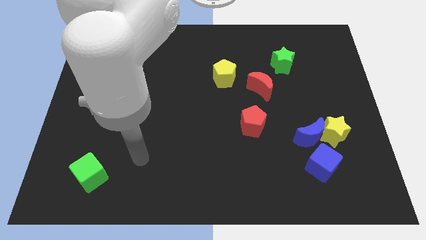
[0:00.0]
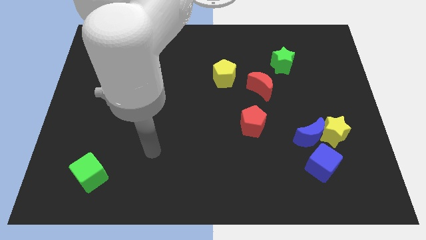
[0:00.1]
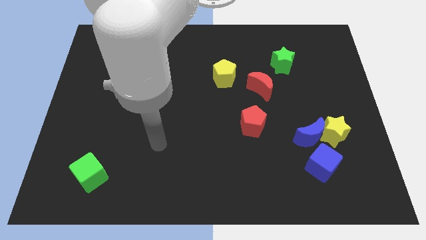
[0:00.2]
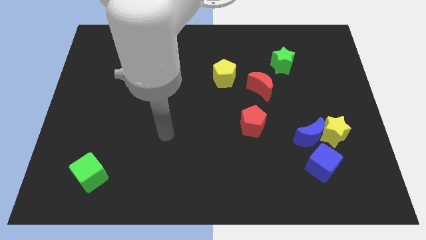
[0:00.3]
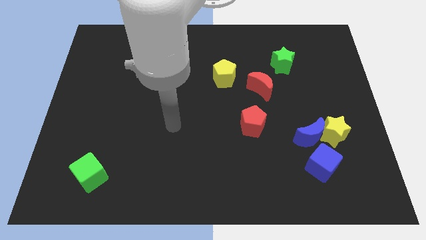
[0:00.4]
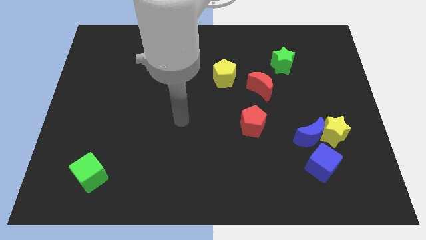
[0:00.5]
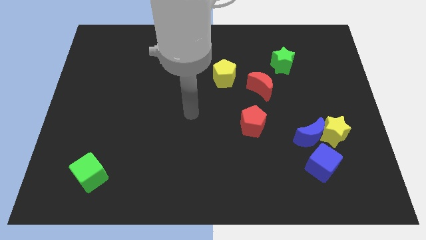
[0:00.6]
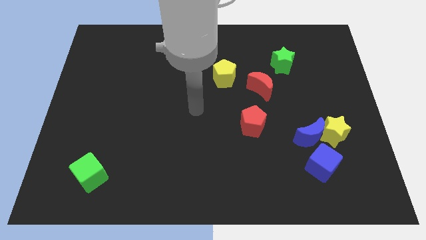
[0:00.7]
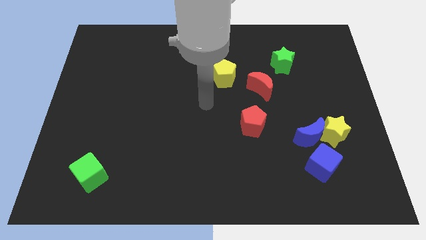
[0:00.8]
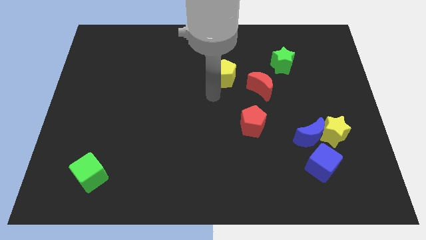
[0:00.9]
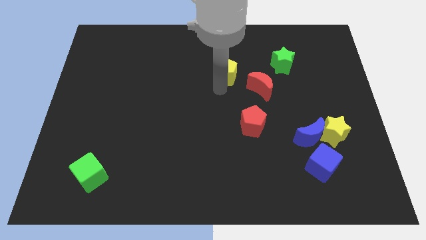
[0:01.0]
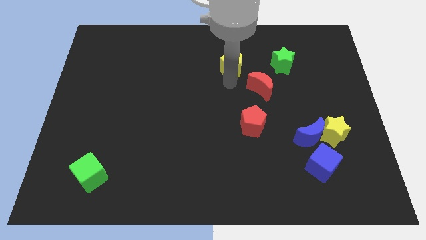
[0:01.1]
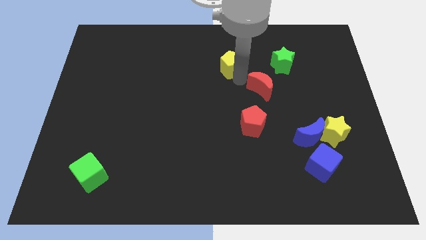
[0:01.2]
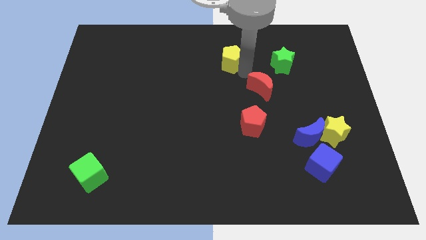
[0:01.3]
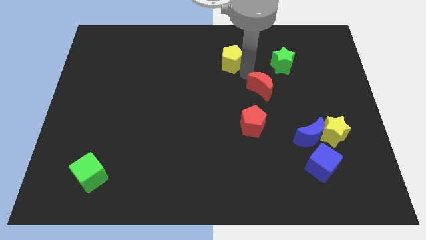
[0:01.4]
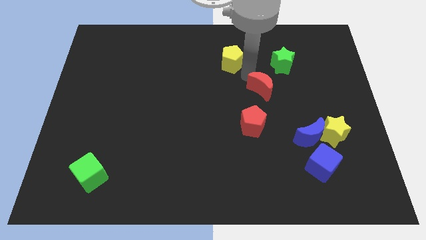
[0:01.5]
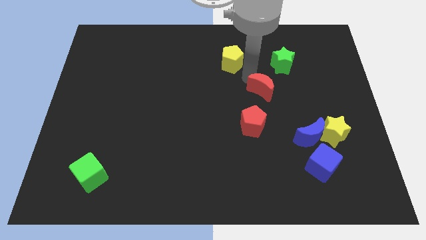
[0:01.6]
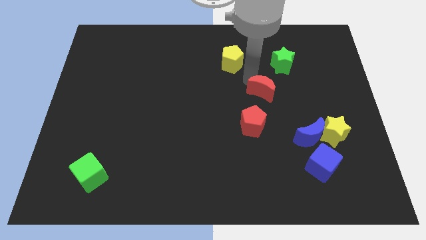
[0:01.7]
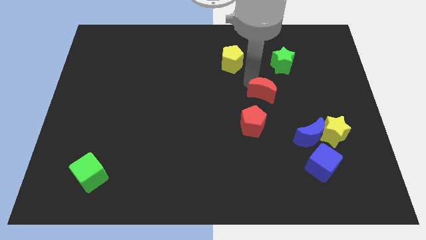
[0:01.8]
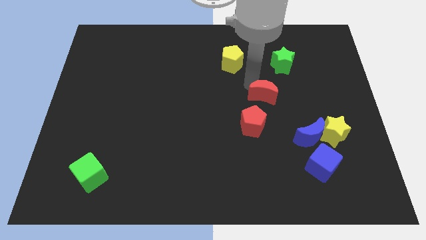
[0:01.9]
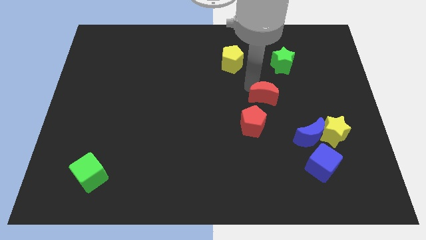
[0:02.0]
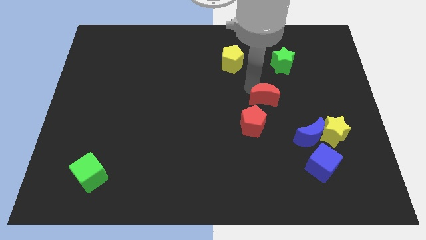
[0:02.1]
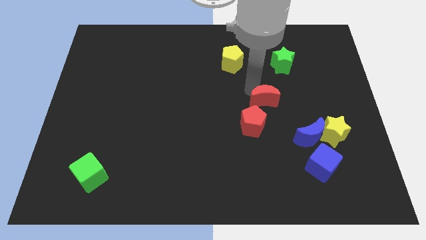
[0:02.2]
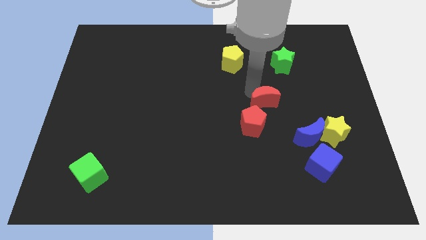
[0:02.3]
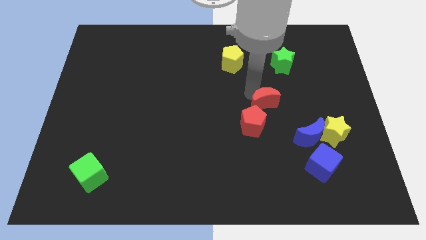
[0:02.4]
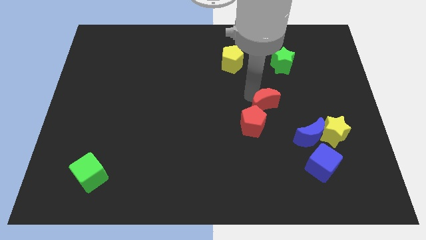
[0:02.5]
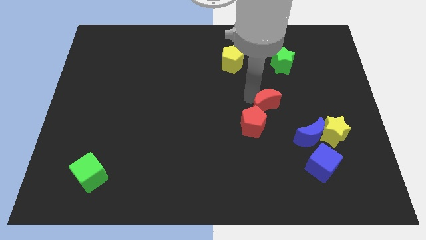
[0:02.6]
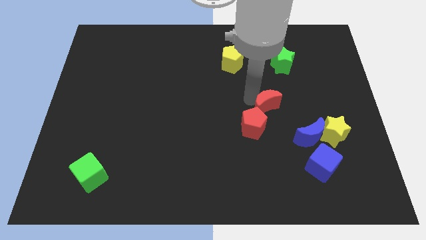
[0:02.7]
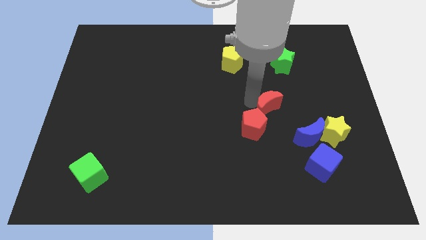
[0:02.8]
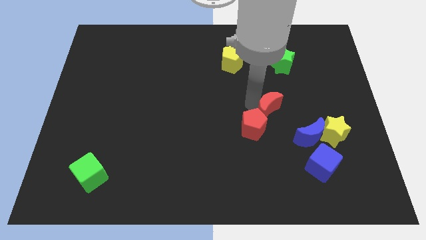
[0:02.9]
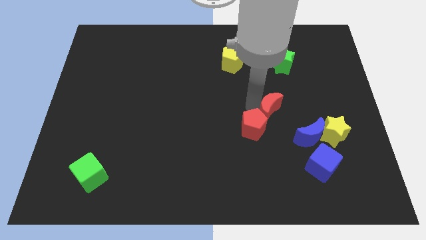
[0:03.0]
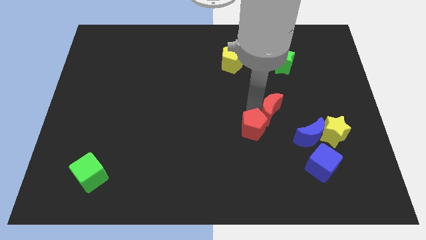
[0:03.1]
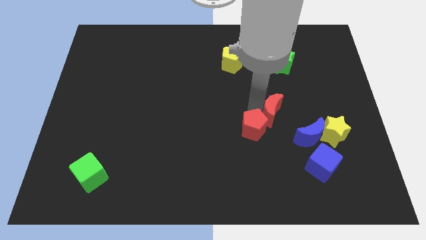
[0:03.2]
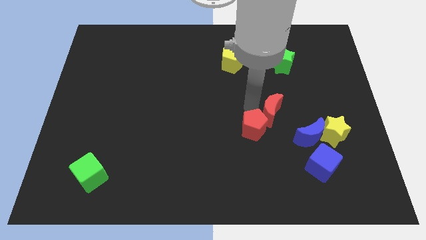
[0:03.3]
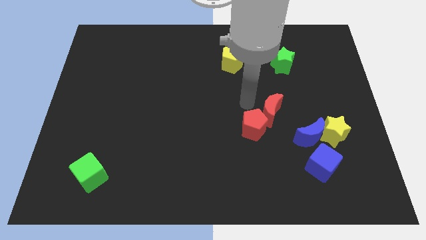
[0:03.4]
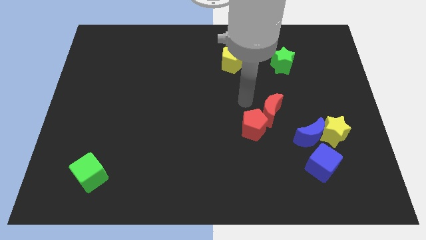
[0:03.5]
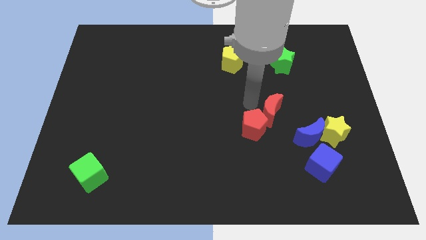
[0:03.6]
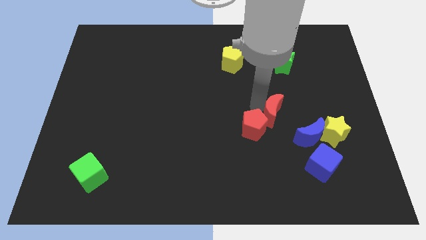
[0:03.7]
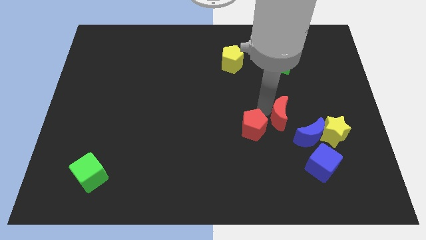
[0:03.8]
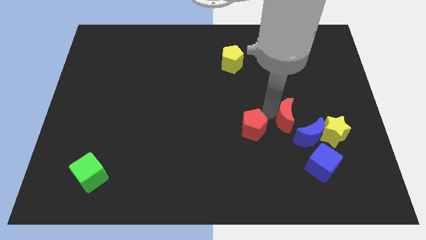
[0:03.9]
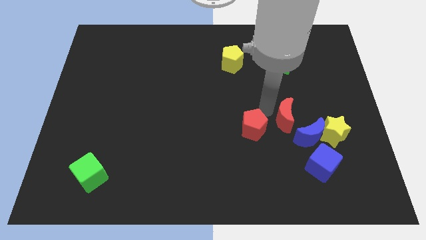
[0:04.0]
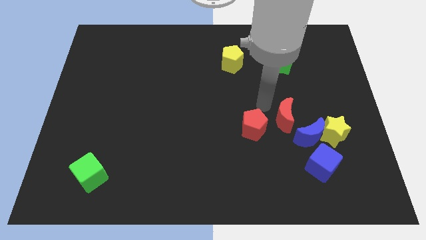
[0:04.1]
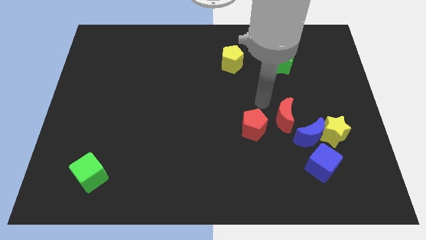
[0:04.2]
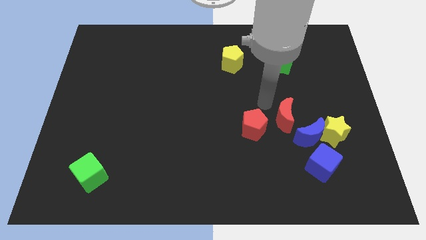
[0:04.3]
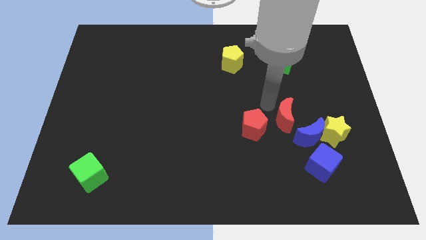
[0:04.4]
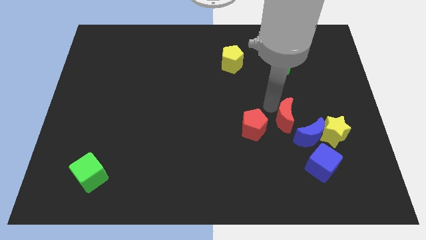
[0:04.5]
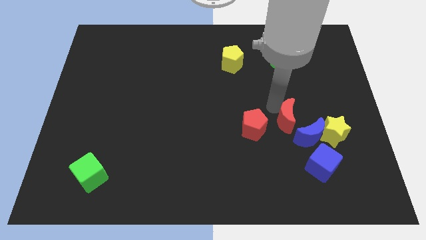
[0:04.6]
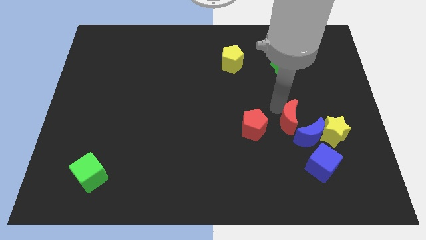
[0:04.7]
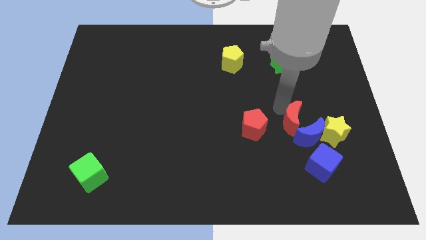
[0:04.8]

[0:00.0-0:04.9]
put the red moon close to the blue moon

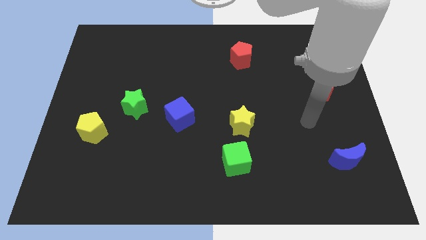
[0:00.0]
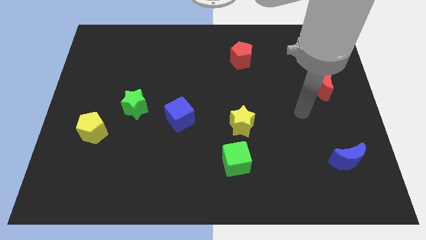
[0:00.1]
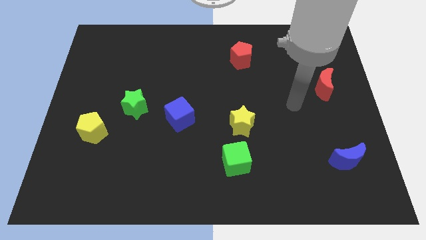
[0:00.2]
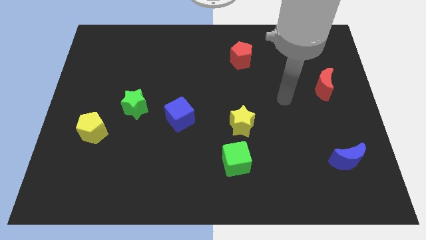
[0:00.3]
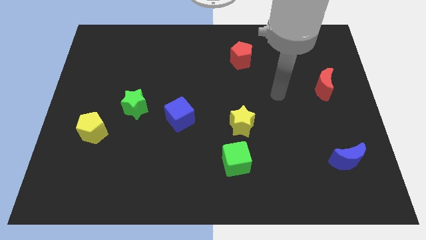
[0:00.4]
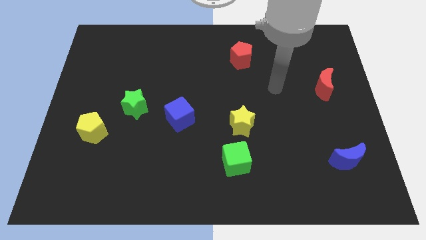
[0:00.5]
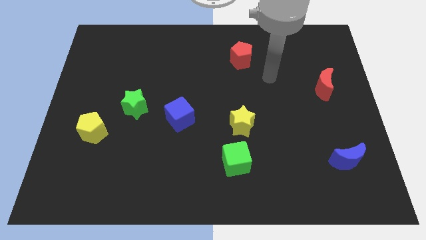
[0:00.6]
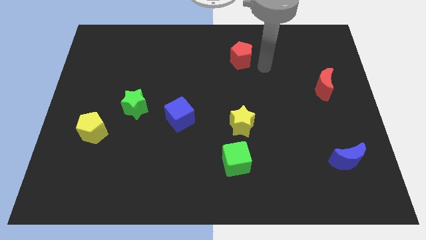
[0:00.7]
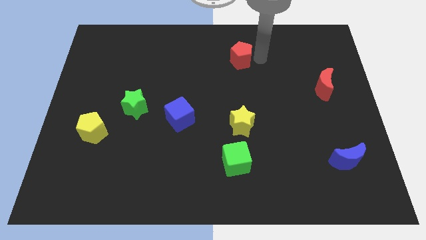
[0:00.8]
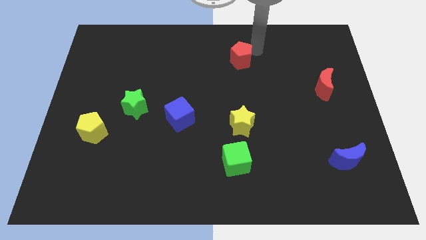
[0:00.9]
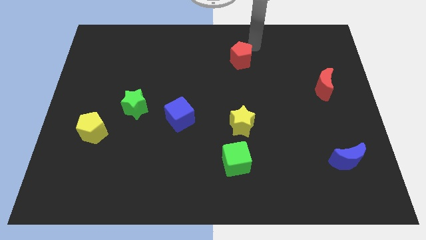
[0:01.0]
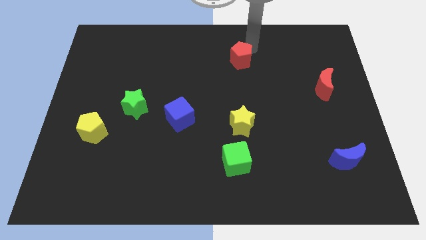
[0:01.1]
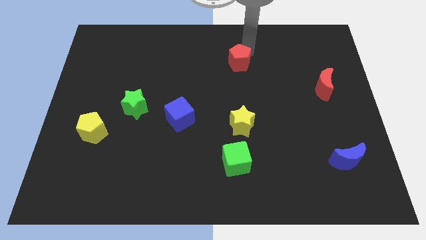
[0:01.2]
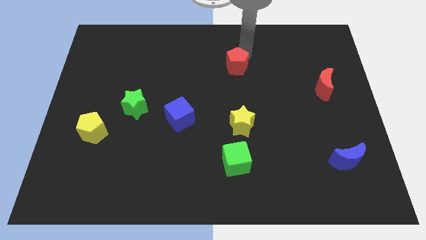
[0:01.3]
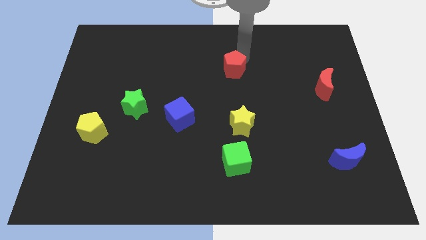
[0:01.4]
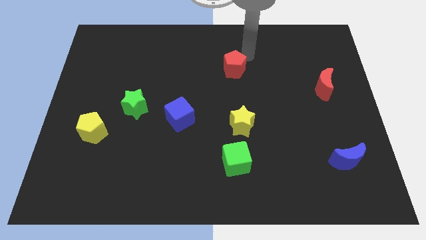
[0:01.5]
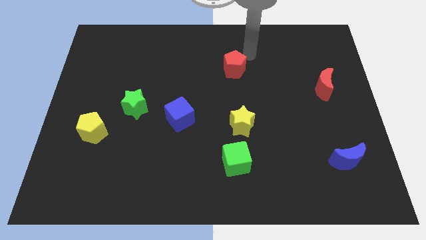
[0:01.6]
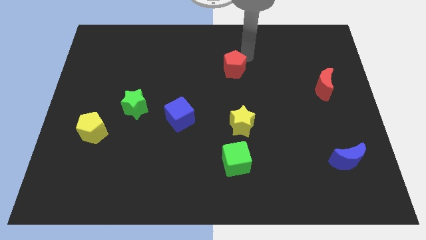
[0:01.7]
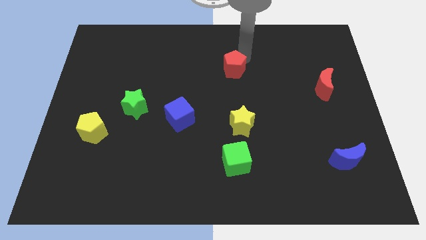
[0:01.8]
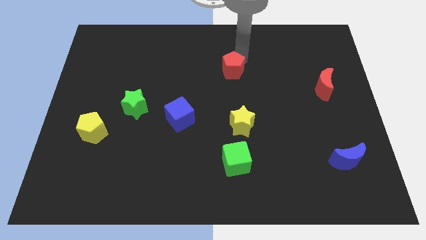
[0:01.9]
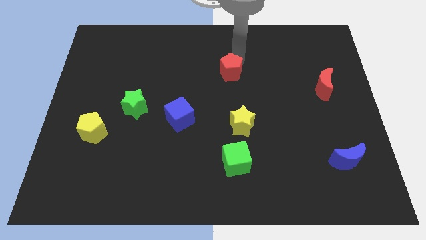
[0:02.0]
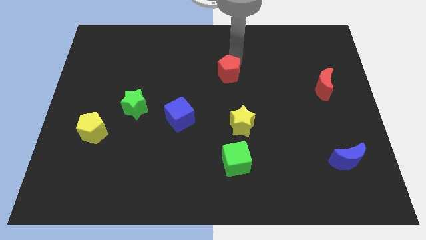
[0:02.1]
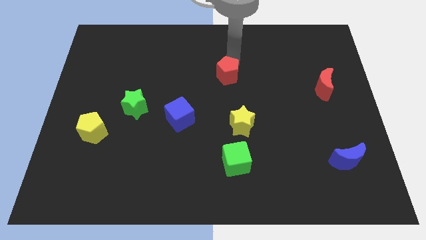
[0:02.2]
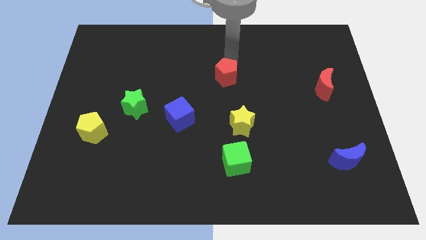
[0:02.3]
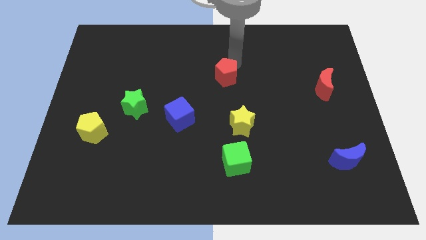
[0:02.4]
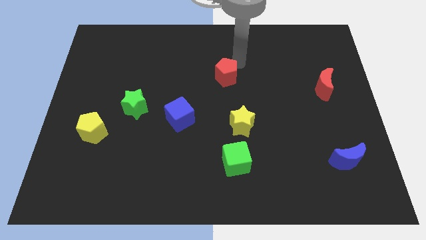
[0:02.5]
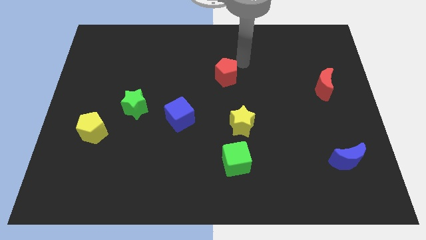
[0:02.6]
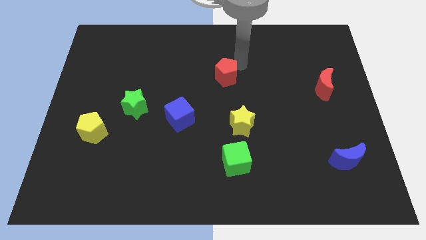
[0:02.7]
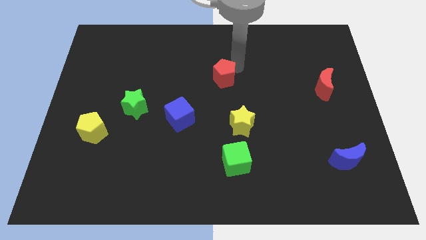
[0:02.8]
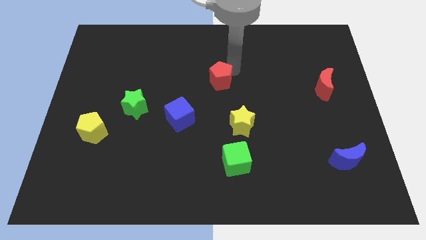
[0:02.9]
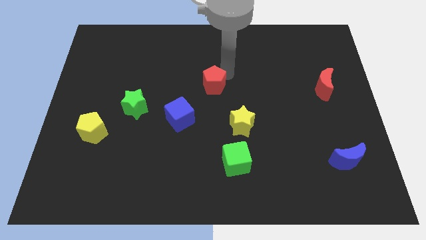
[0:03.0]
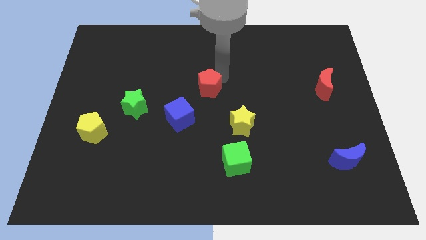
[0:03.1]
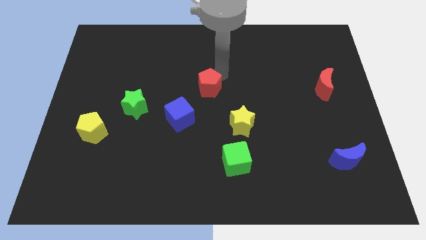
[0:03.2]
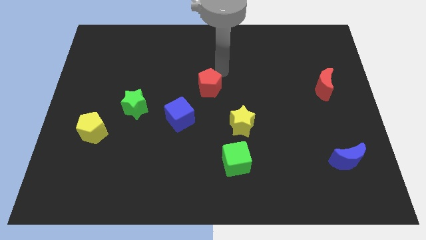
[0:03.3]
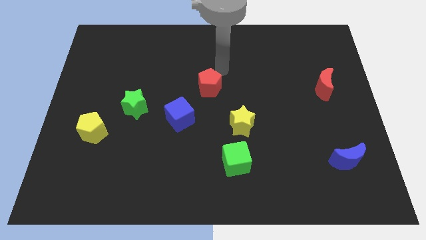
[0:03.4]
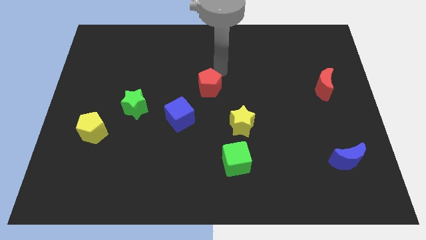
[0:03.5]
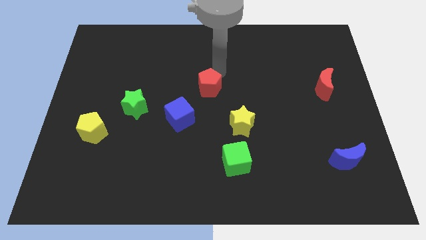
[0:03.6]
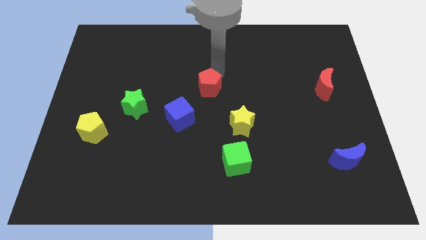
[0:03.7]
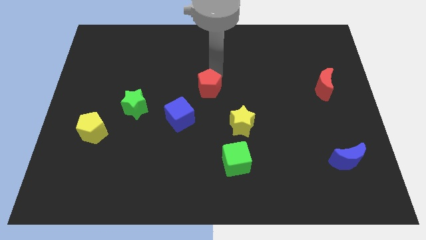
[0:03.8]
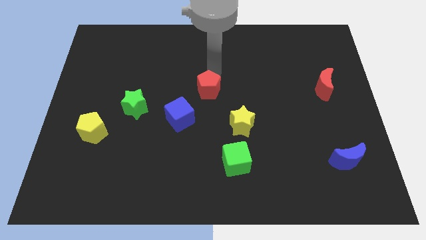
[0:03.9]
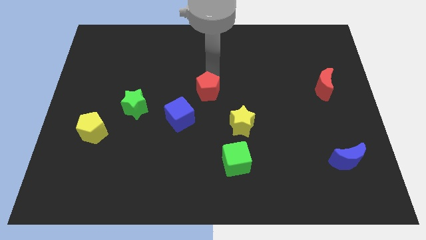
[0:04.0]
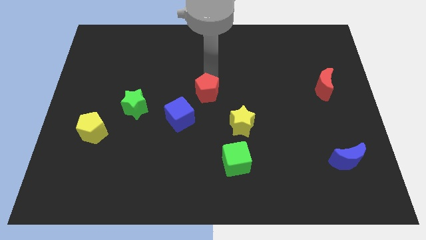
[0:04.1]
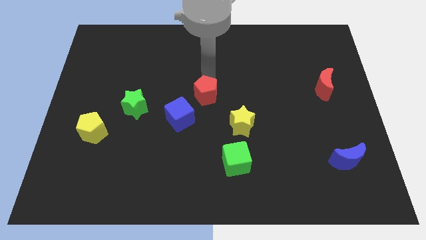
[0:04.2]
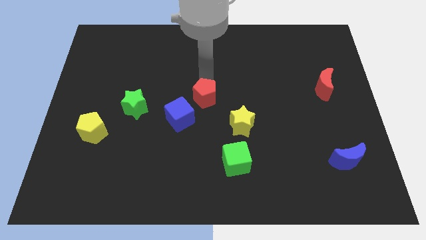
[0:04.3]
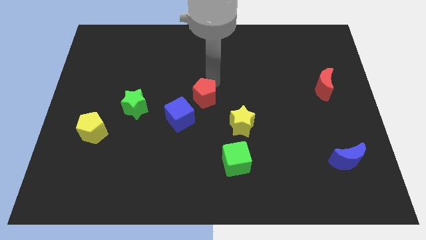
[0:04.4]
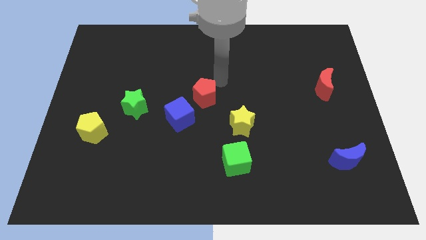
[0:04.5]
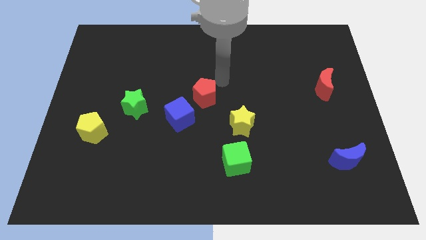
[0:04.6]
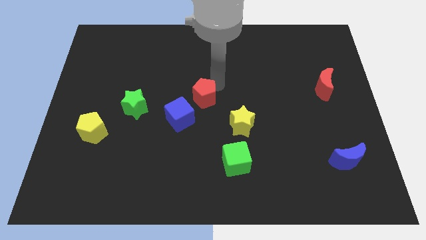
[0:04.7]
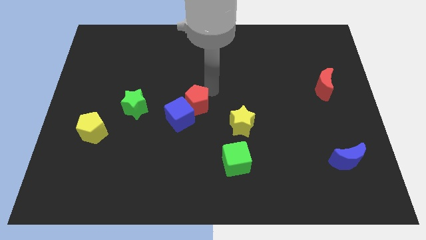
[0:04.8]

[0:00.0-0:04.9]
put the red pentagon close to the blue cube
